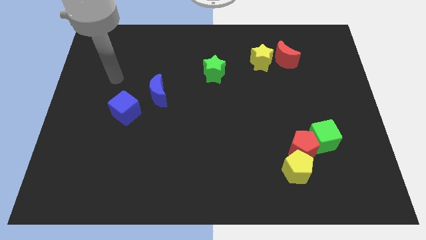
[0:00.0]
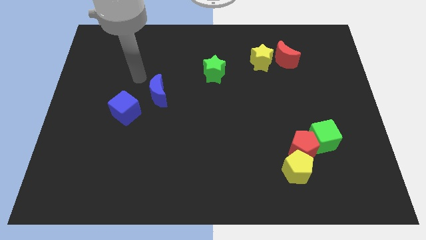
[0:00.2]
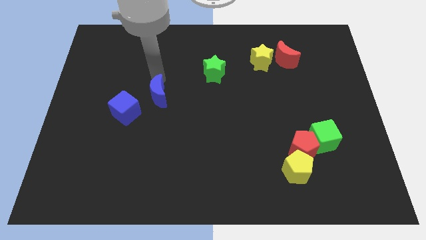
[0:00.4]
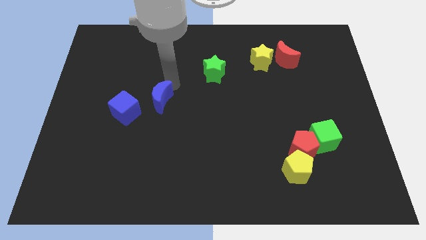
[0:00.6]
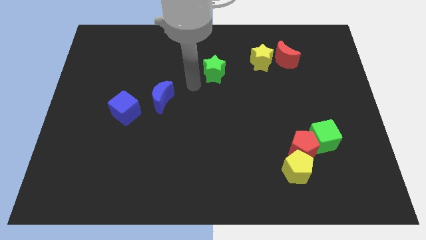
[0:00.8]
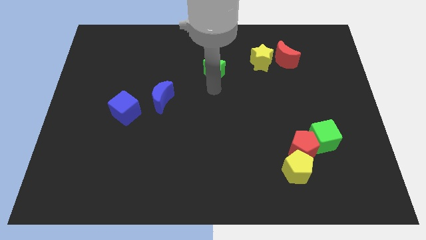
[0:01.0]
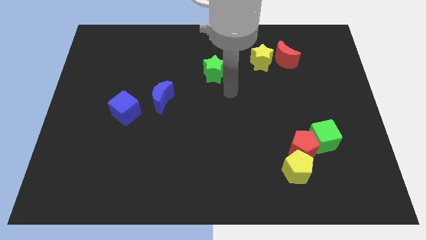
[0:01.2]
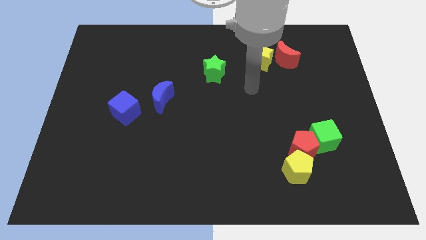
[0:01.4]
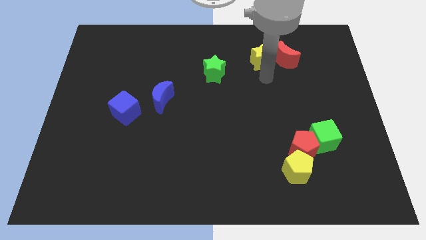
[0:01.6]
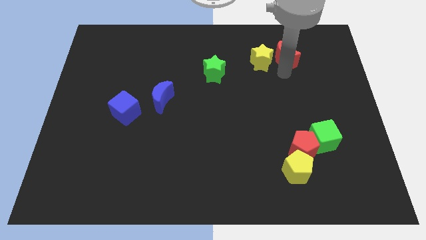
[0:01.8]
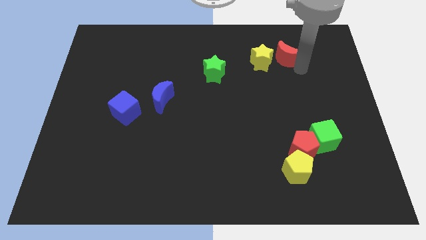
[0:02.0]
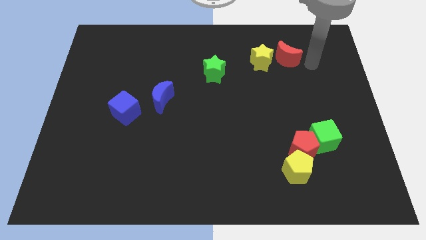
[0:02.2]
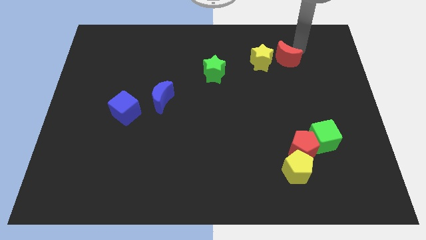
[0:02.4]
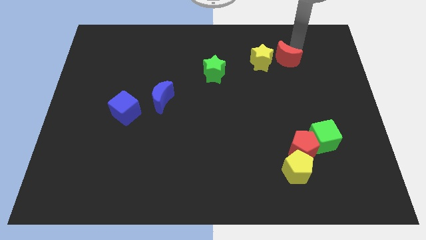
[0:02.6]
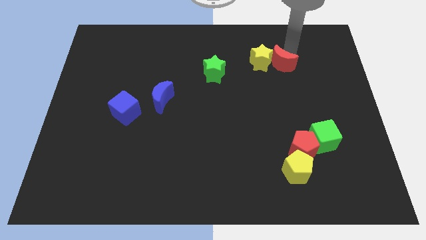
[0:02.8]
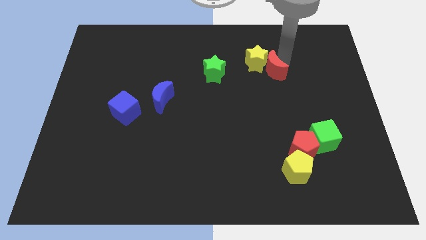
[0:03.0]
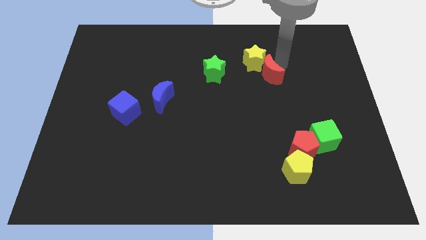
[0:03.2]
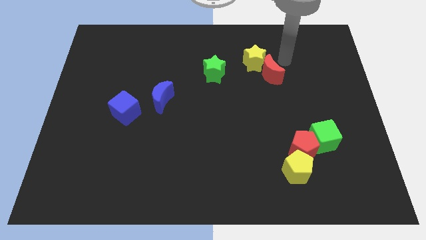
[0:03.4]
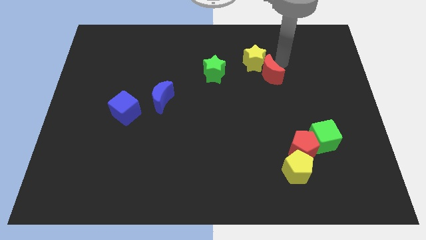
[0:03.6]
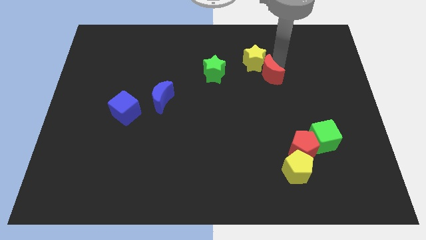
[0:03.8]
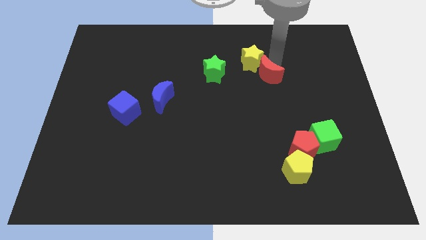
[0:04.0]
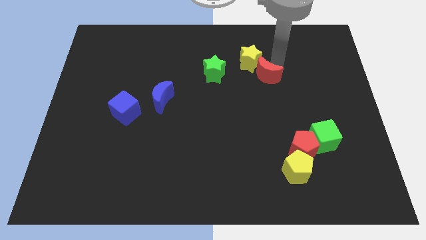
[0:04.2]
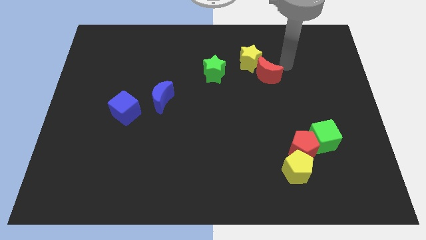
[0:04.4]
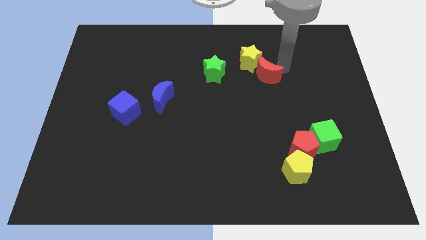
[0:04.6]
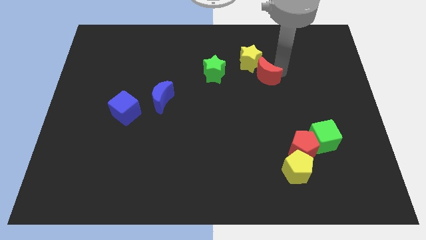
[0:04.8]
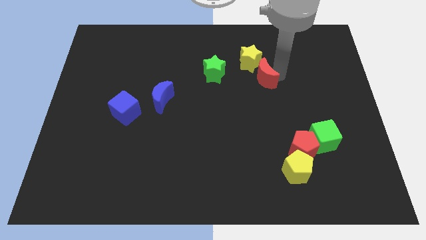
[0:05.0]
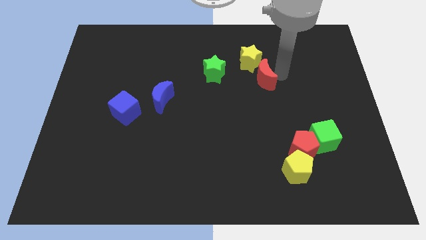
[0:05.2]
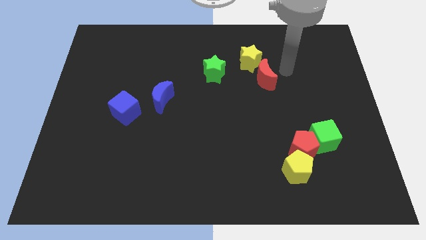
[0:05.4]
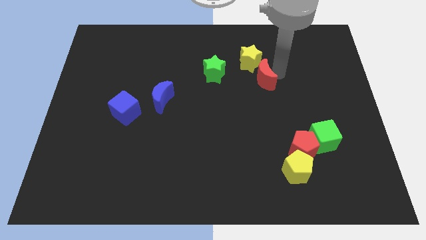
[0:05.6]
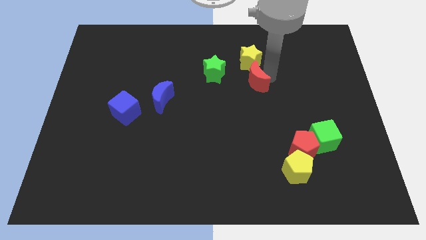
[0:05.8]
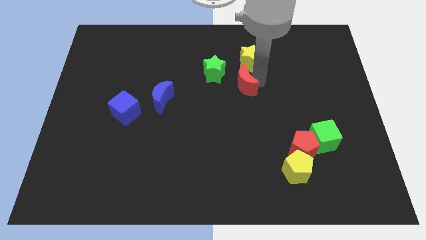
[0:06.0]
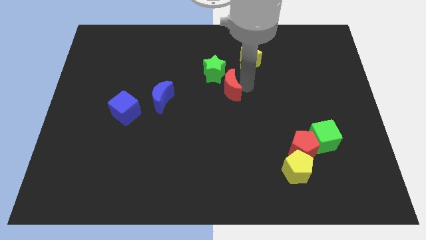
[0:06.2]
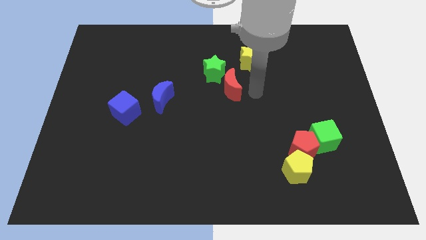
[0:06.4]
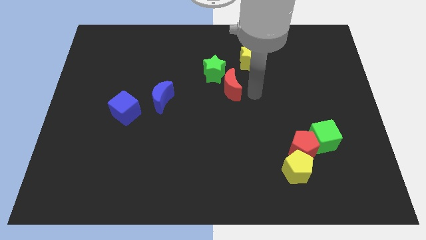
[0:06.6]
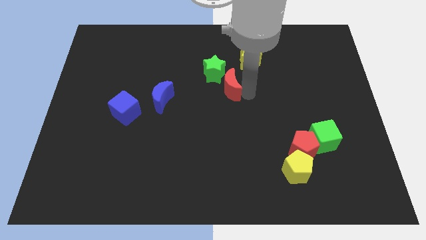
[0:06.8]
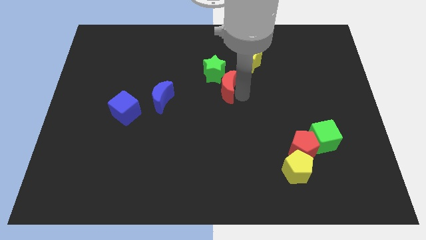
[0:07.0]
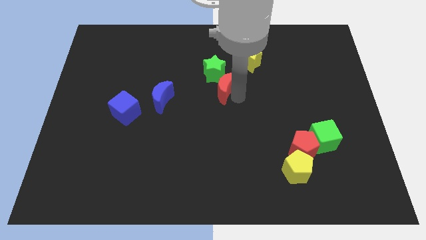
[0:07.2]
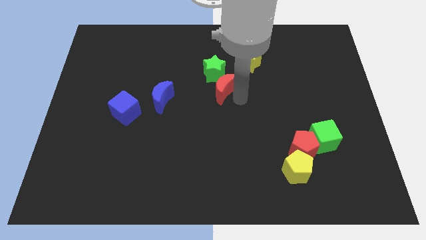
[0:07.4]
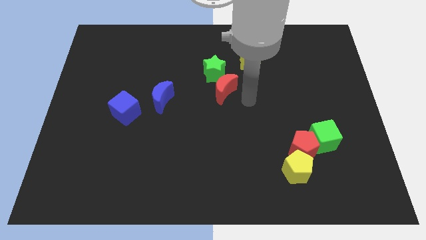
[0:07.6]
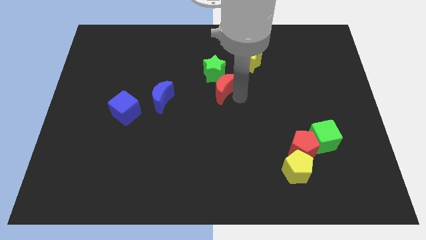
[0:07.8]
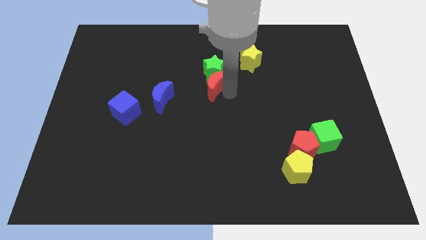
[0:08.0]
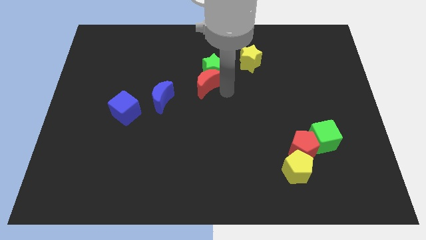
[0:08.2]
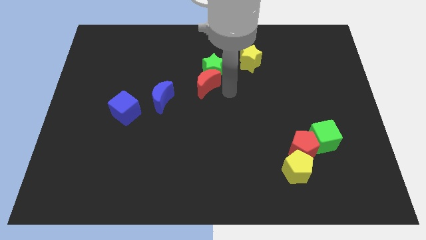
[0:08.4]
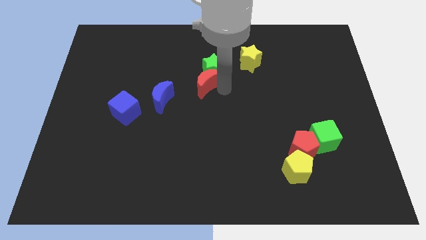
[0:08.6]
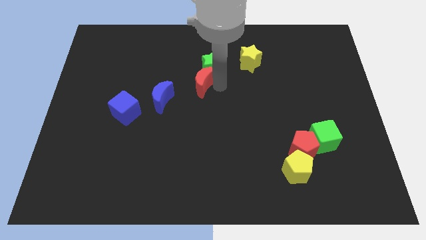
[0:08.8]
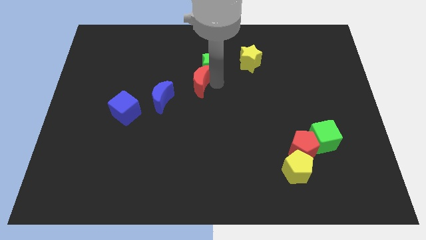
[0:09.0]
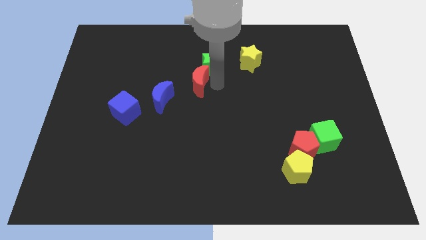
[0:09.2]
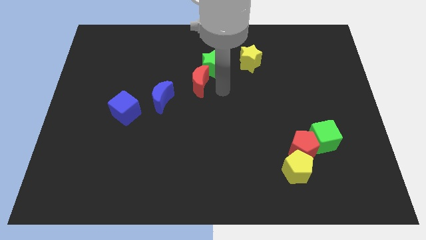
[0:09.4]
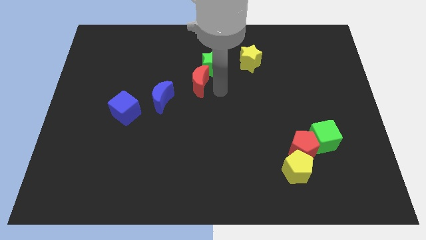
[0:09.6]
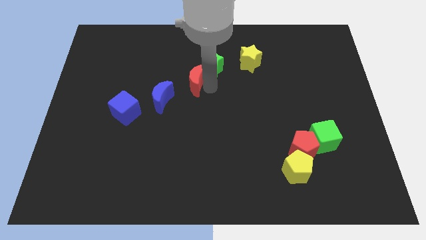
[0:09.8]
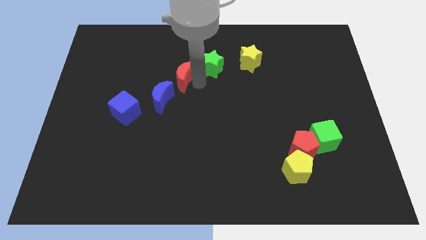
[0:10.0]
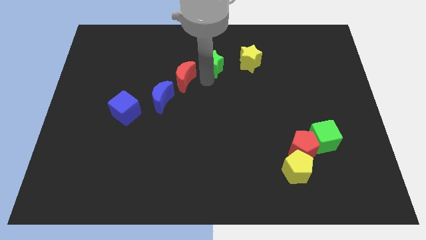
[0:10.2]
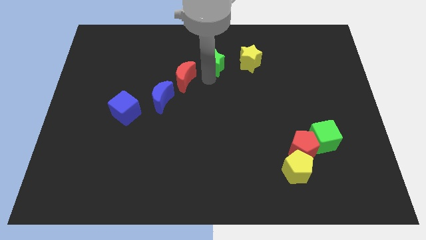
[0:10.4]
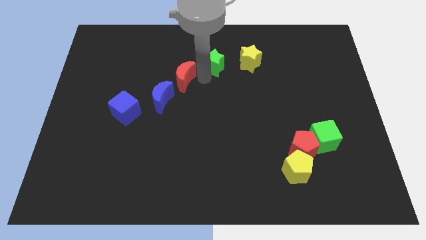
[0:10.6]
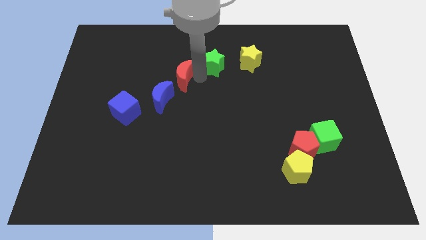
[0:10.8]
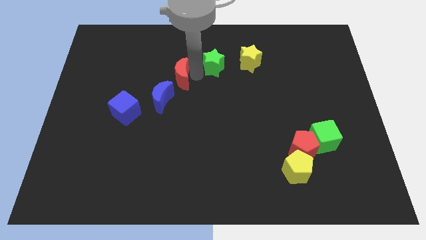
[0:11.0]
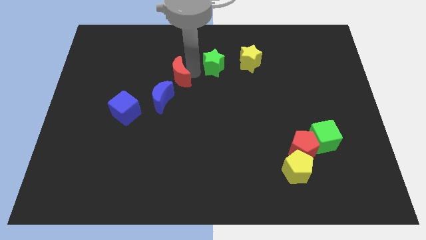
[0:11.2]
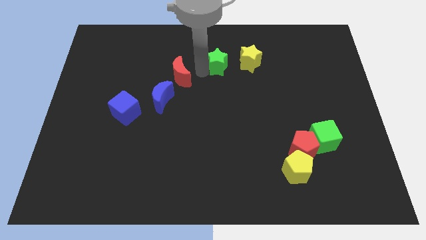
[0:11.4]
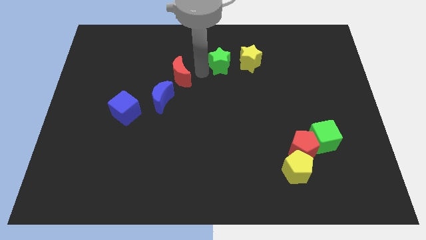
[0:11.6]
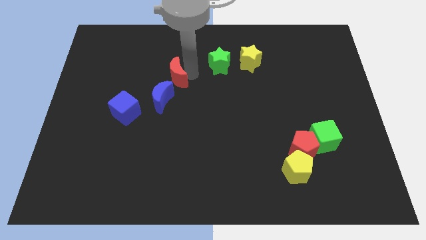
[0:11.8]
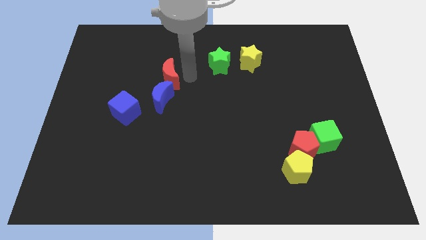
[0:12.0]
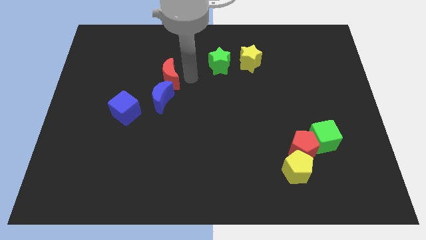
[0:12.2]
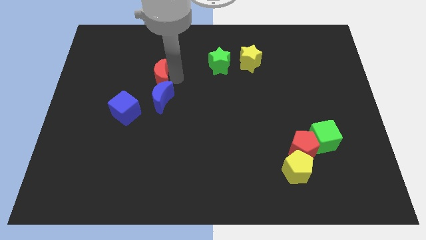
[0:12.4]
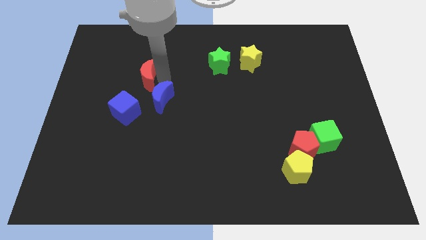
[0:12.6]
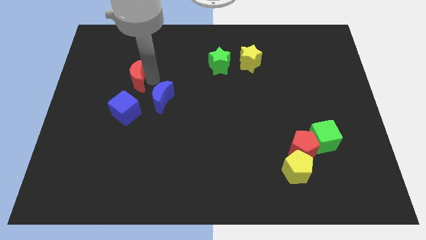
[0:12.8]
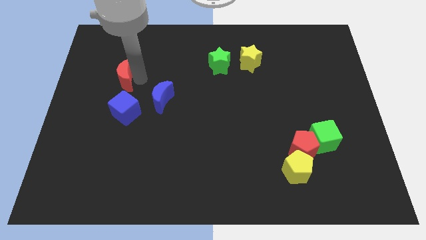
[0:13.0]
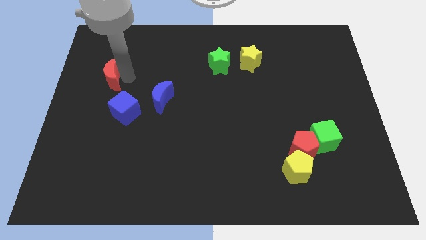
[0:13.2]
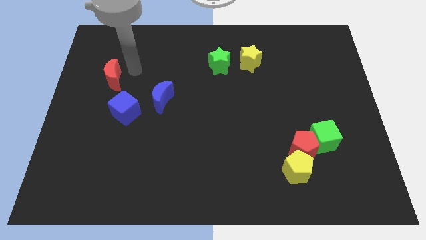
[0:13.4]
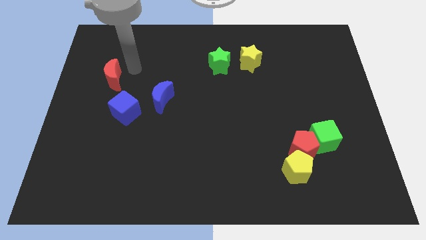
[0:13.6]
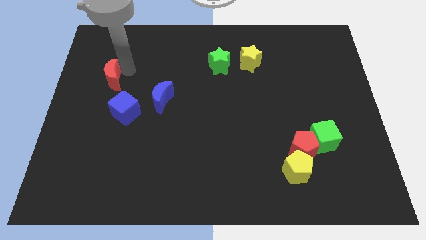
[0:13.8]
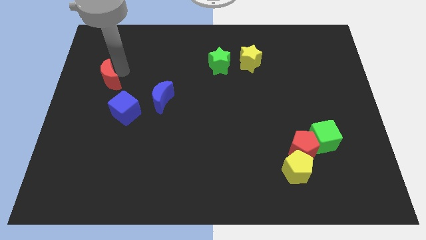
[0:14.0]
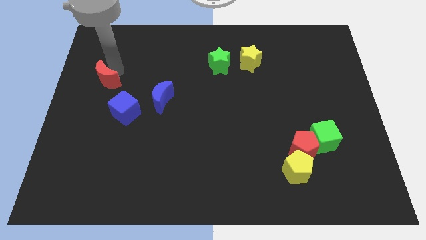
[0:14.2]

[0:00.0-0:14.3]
move the red moon to the left side
